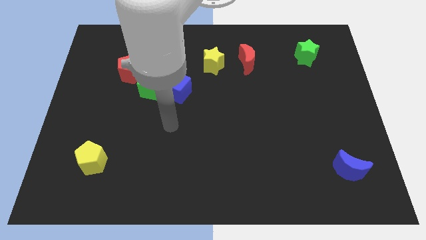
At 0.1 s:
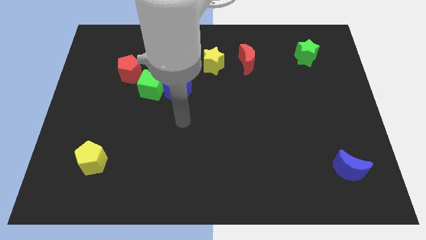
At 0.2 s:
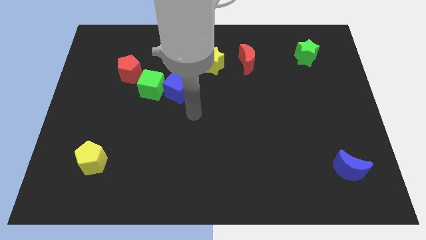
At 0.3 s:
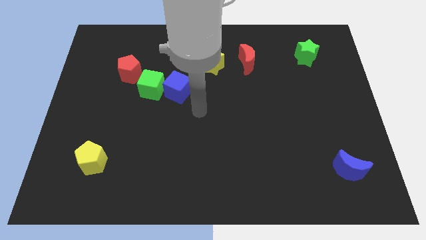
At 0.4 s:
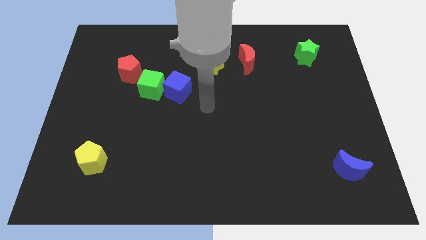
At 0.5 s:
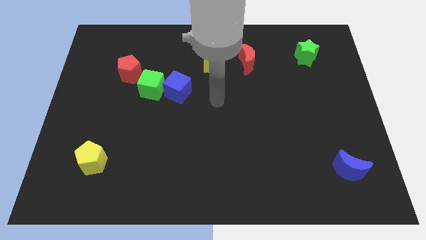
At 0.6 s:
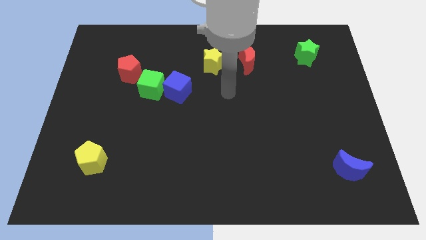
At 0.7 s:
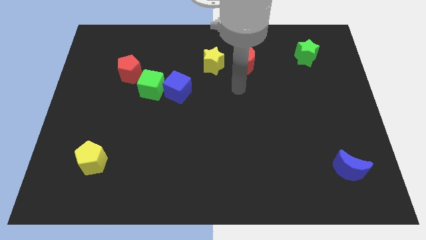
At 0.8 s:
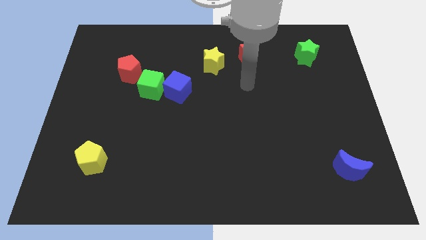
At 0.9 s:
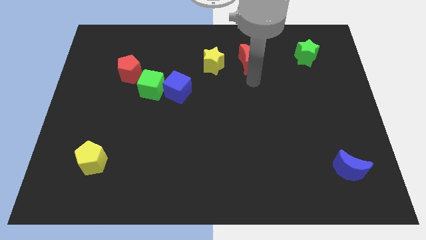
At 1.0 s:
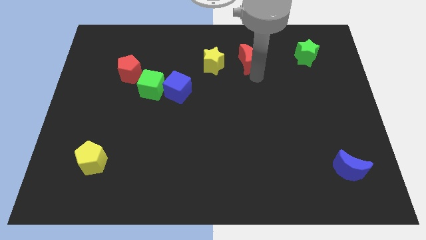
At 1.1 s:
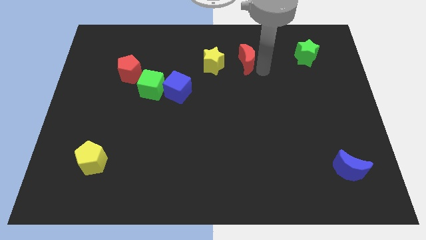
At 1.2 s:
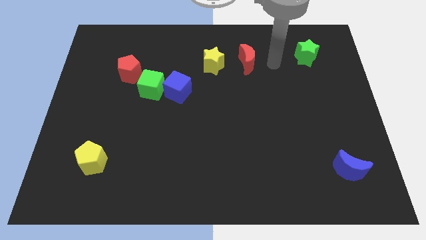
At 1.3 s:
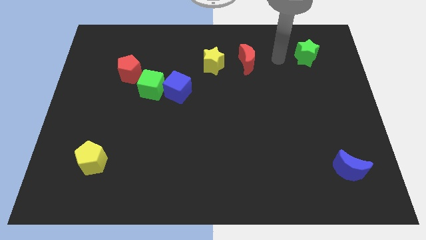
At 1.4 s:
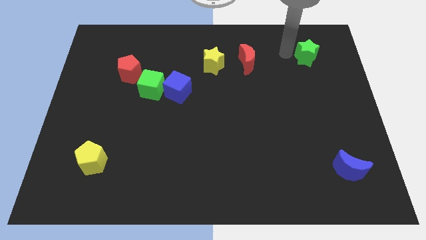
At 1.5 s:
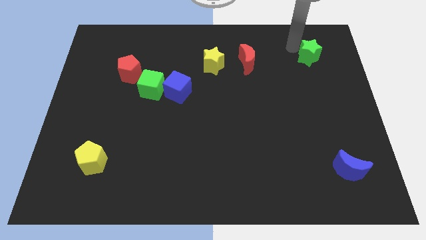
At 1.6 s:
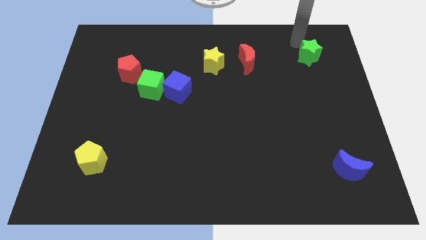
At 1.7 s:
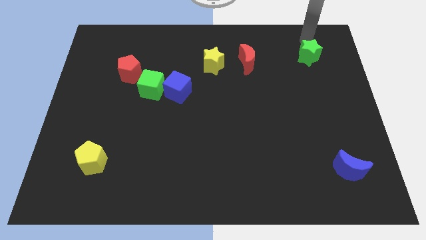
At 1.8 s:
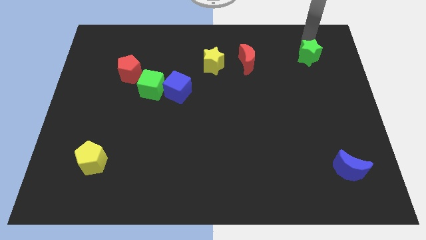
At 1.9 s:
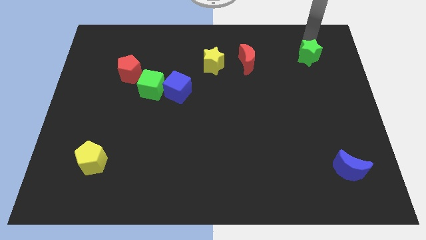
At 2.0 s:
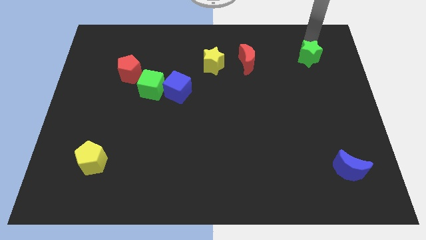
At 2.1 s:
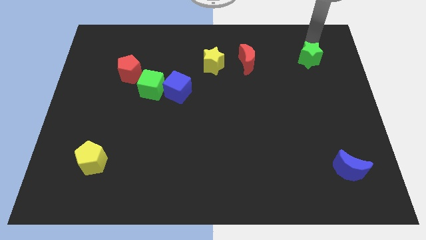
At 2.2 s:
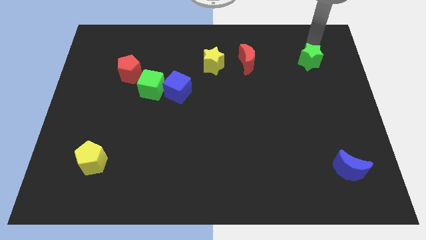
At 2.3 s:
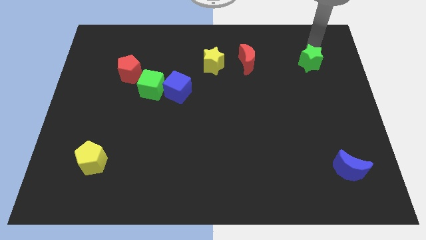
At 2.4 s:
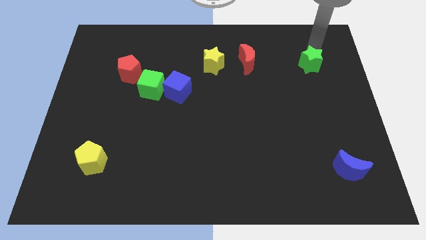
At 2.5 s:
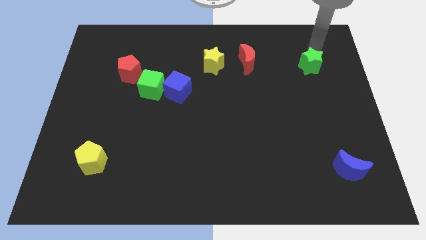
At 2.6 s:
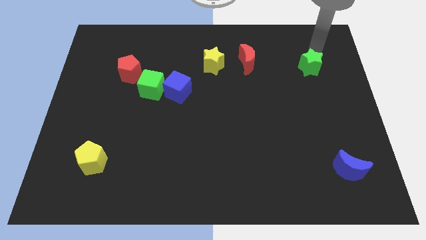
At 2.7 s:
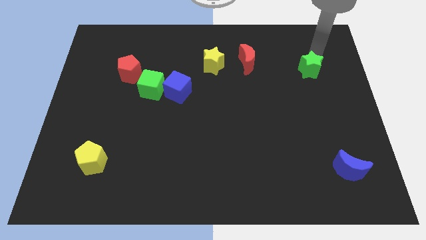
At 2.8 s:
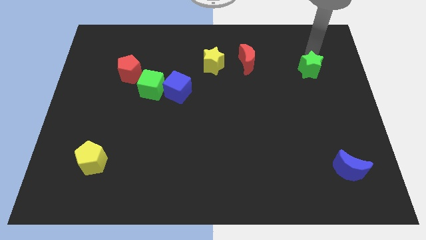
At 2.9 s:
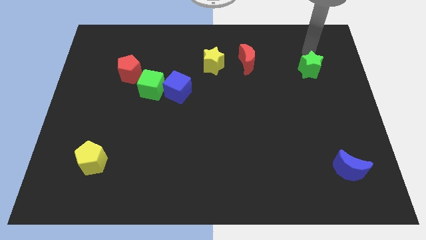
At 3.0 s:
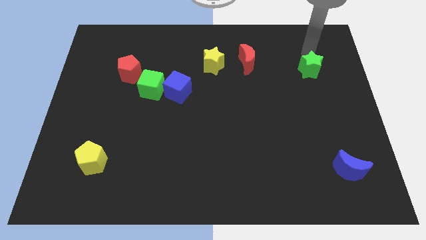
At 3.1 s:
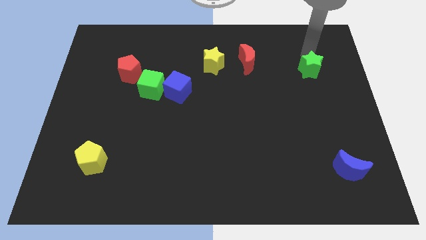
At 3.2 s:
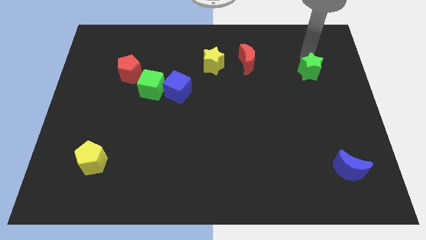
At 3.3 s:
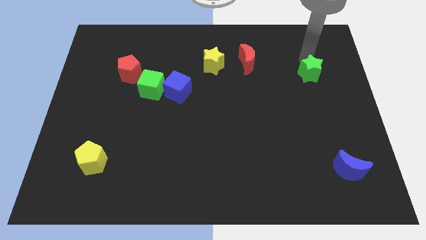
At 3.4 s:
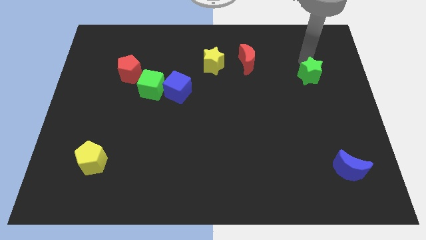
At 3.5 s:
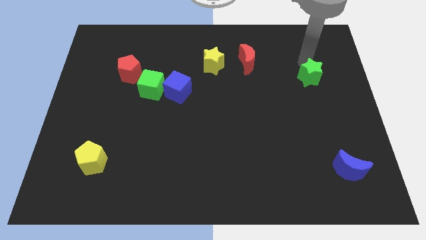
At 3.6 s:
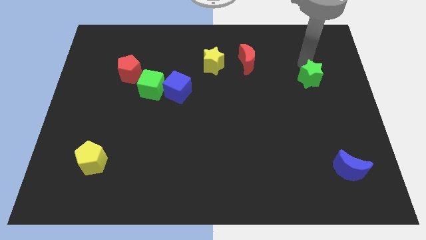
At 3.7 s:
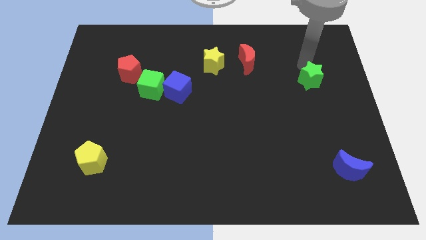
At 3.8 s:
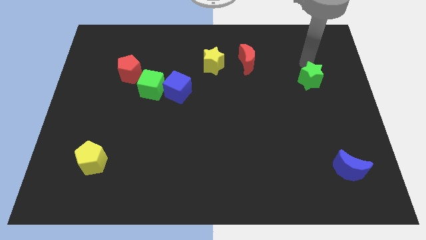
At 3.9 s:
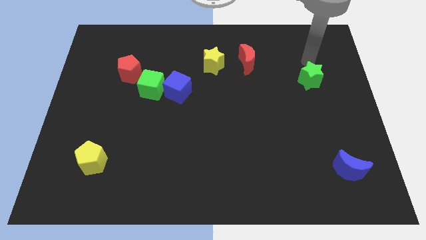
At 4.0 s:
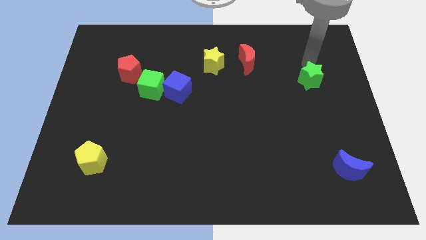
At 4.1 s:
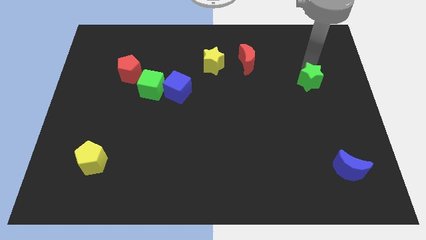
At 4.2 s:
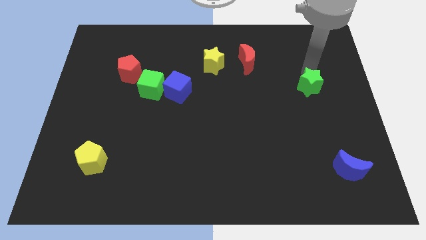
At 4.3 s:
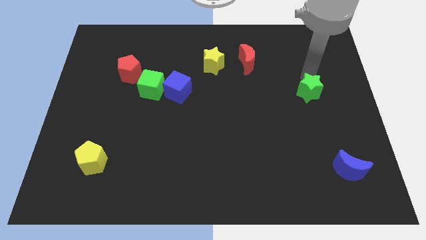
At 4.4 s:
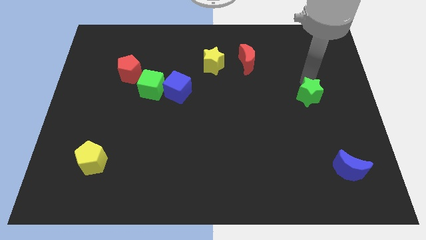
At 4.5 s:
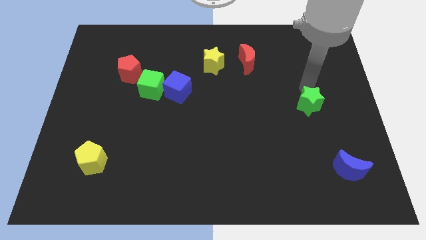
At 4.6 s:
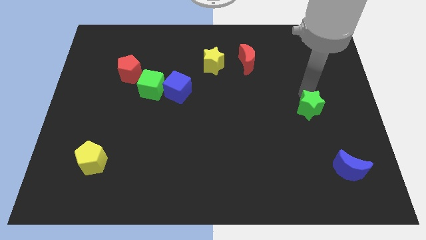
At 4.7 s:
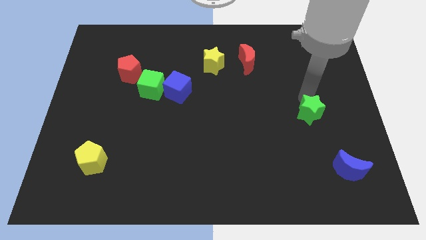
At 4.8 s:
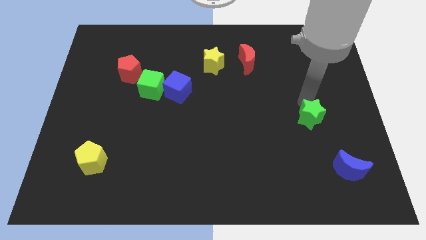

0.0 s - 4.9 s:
push the green star downwards

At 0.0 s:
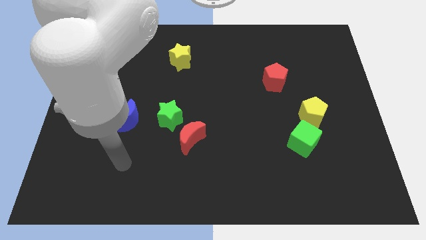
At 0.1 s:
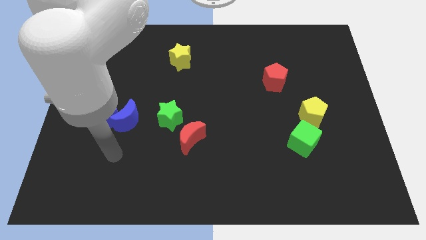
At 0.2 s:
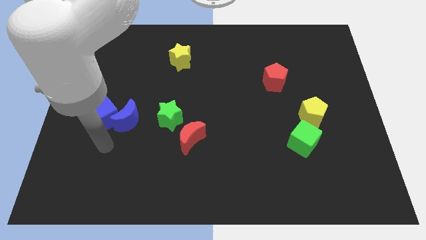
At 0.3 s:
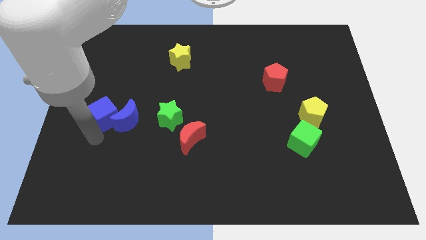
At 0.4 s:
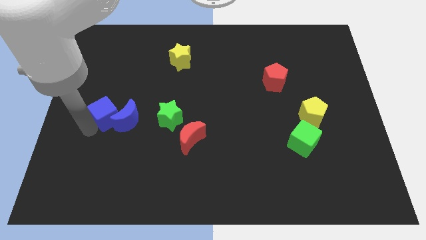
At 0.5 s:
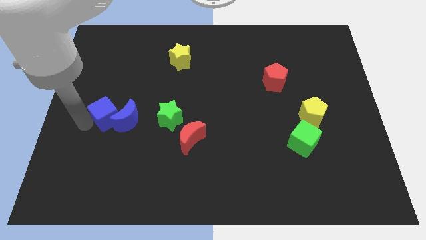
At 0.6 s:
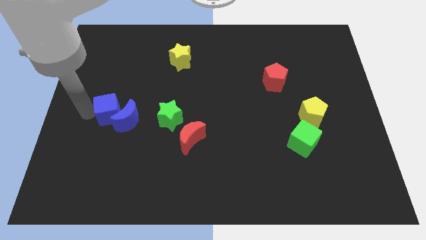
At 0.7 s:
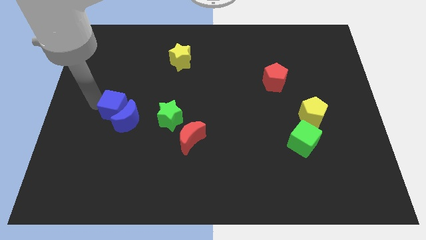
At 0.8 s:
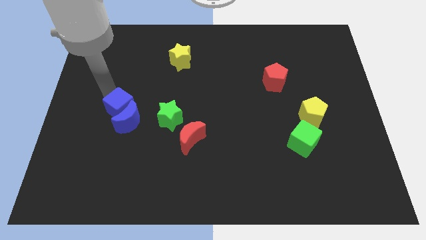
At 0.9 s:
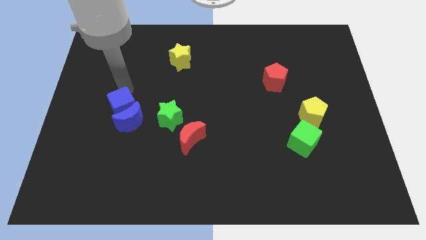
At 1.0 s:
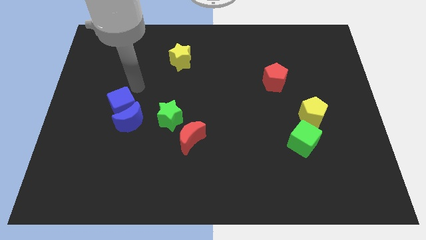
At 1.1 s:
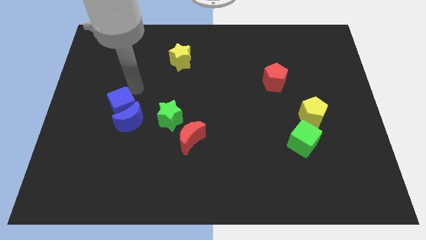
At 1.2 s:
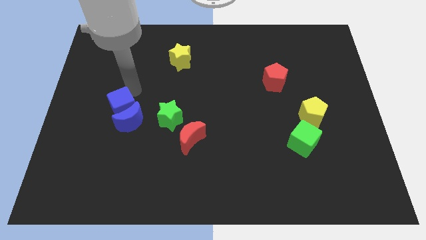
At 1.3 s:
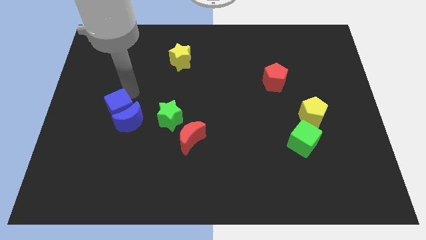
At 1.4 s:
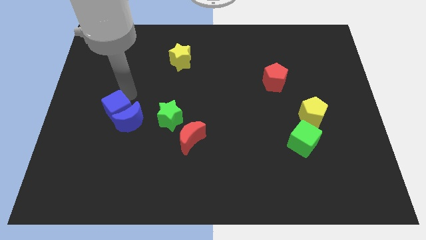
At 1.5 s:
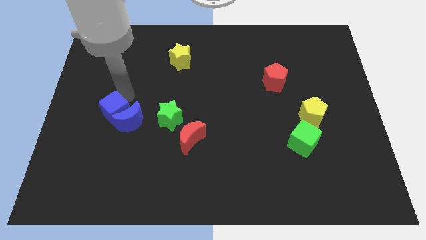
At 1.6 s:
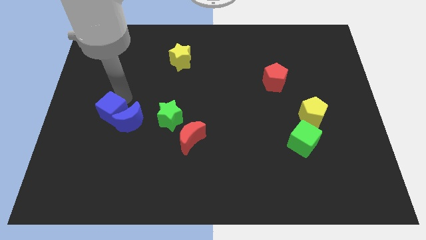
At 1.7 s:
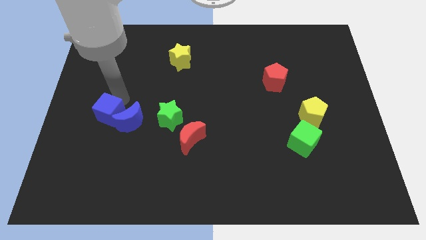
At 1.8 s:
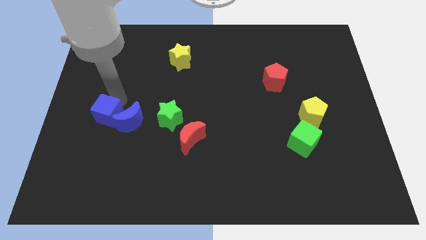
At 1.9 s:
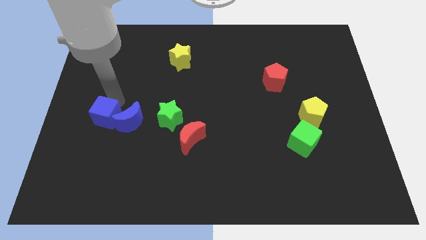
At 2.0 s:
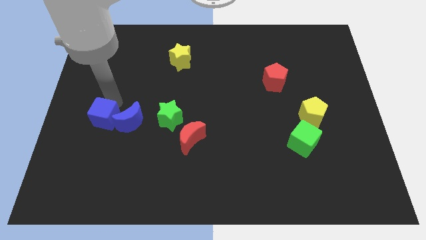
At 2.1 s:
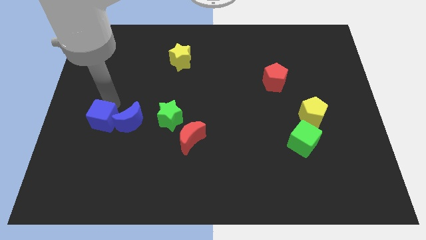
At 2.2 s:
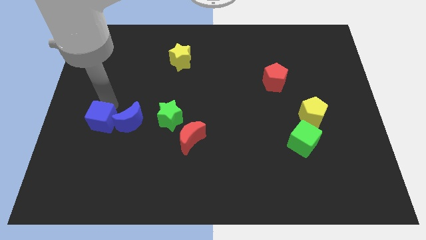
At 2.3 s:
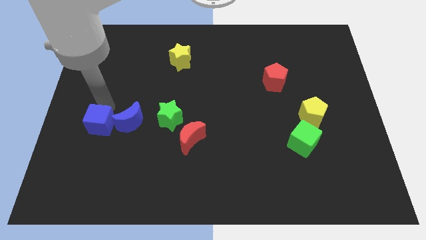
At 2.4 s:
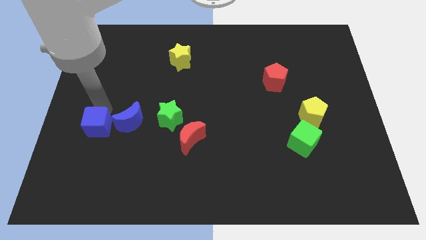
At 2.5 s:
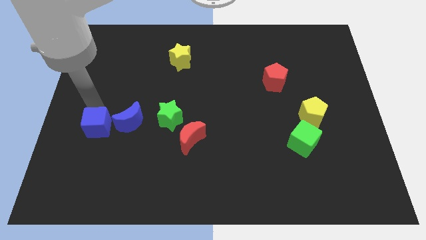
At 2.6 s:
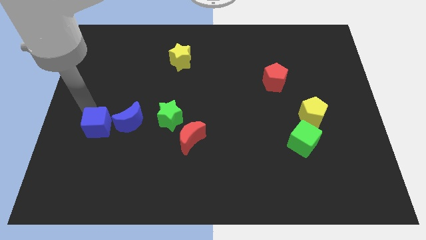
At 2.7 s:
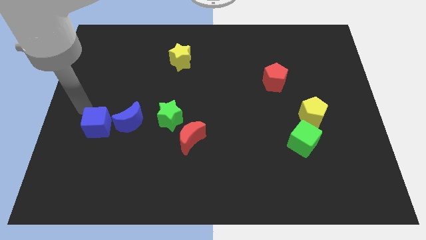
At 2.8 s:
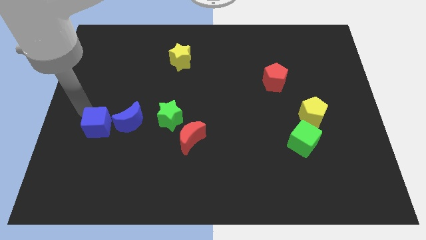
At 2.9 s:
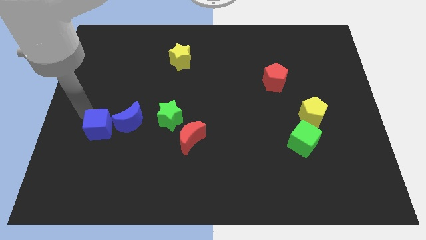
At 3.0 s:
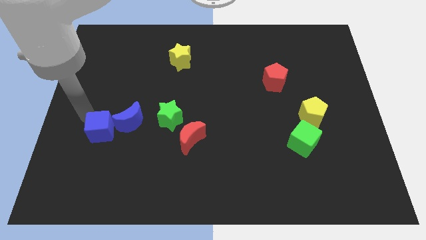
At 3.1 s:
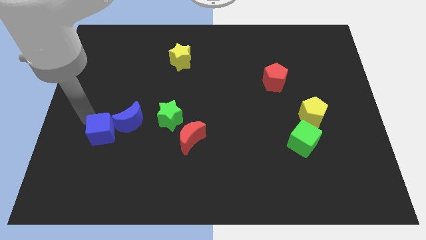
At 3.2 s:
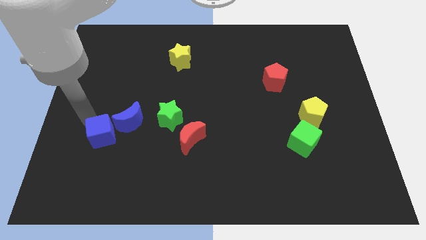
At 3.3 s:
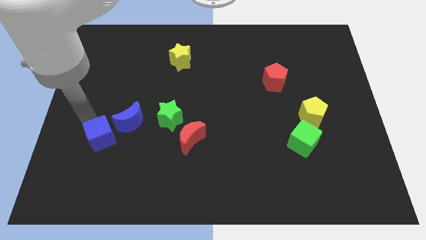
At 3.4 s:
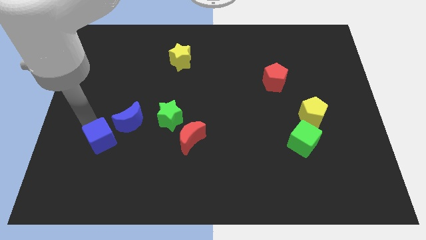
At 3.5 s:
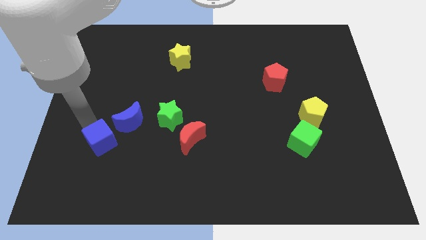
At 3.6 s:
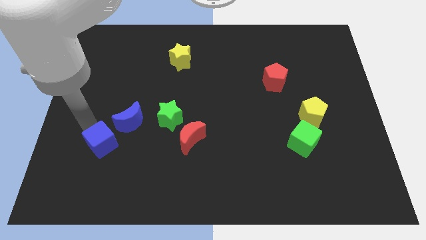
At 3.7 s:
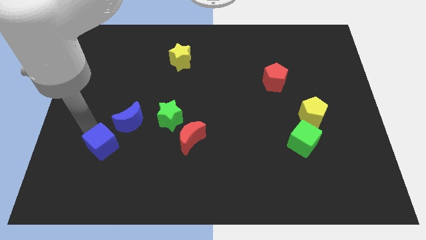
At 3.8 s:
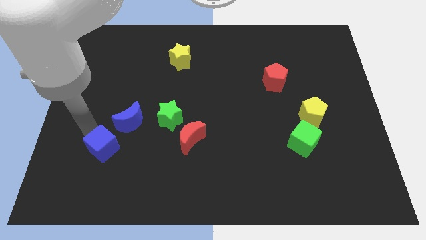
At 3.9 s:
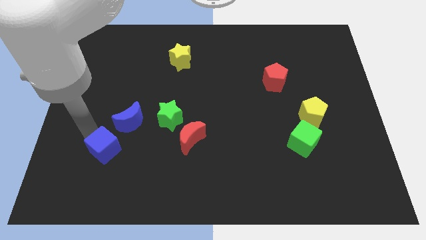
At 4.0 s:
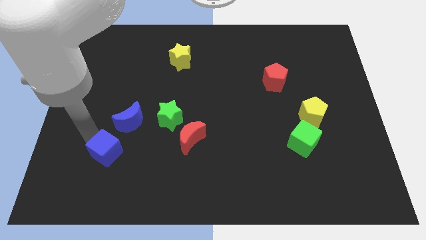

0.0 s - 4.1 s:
slightly push the blue cube down and to the right
